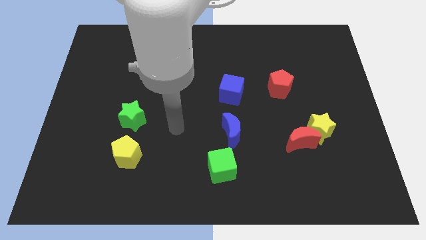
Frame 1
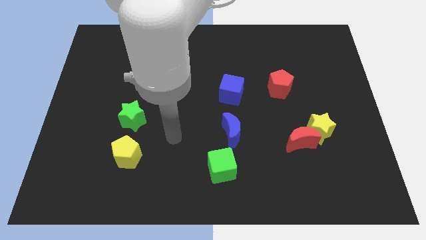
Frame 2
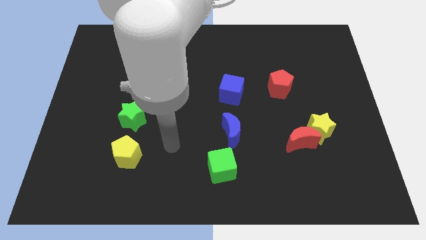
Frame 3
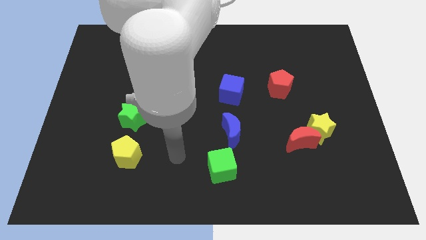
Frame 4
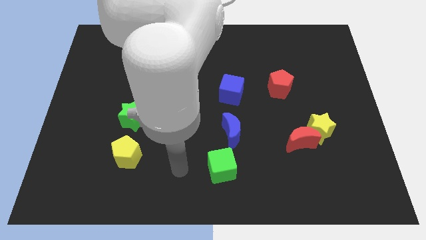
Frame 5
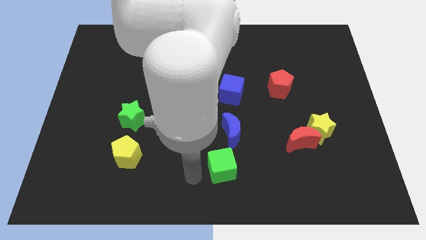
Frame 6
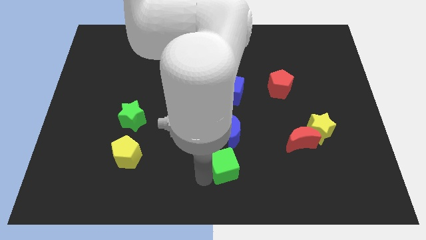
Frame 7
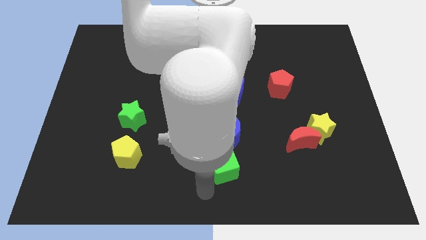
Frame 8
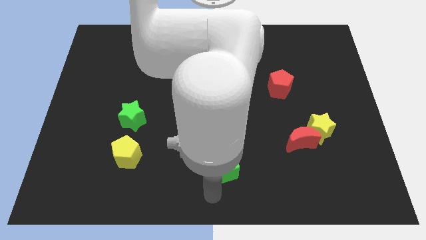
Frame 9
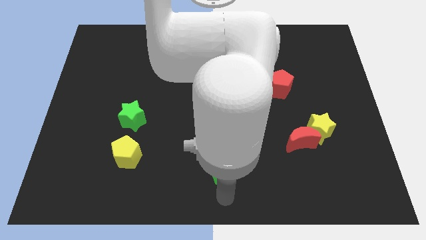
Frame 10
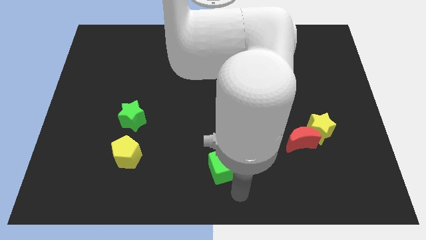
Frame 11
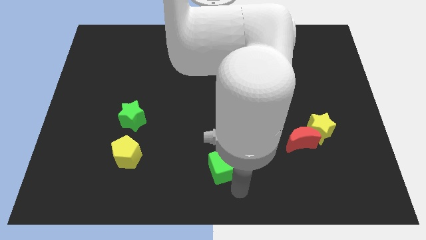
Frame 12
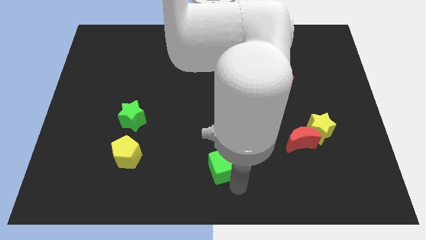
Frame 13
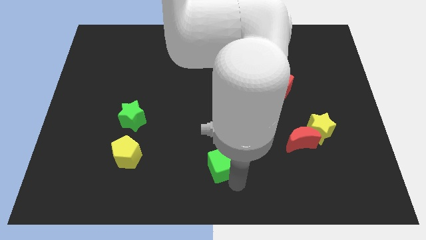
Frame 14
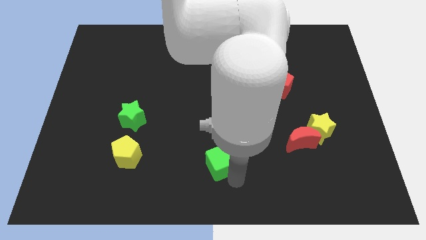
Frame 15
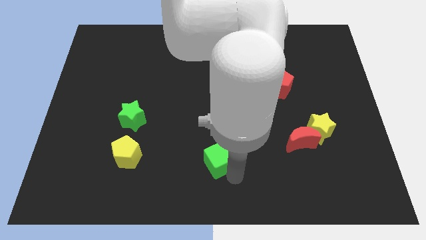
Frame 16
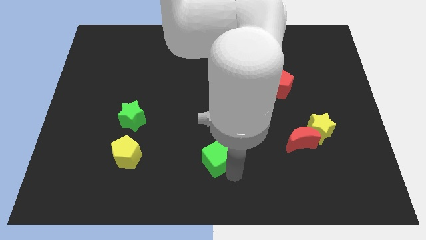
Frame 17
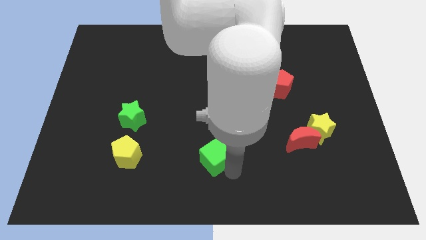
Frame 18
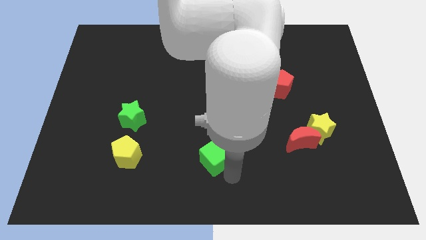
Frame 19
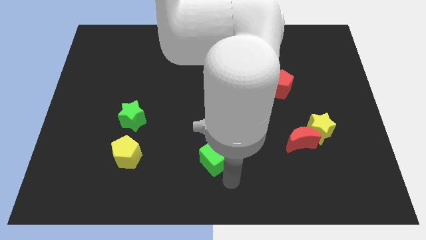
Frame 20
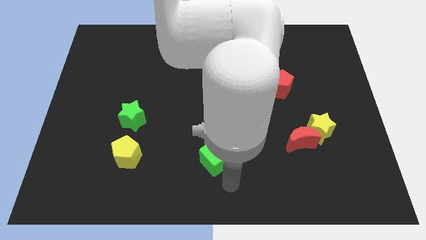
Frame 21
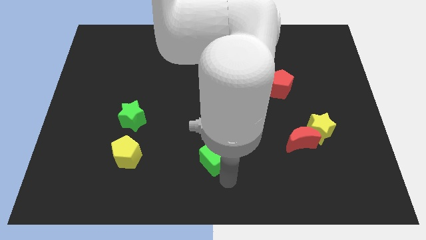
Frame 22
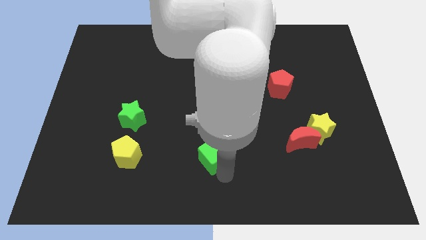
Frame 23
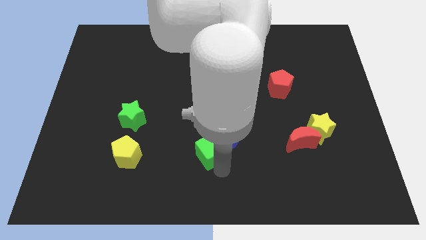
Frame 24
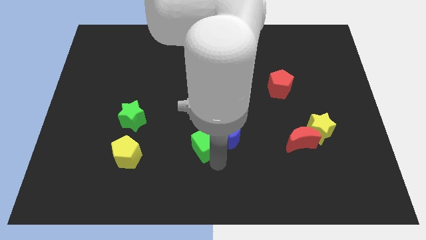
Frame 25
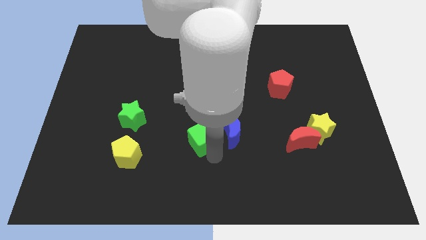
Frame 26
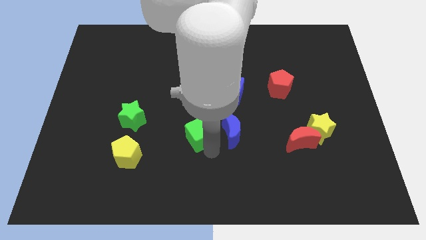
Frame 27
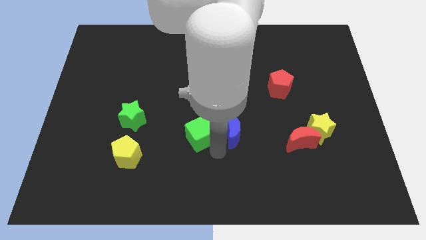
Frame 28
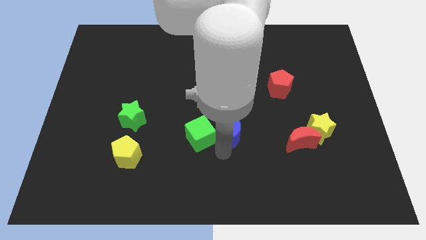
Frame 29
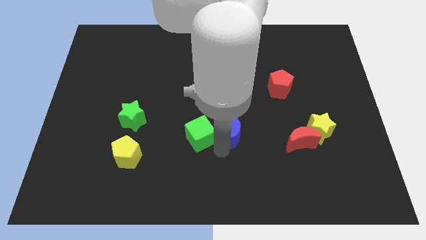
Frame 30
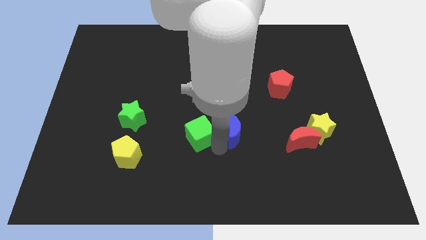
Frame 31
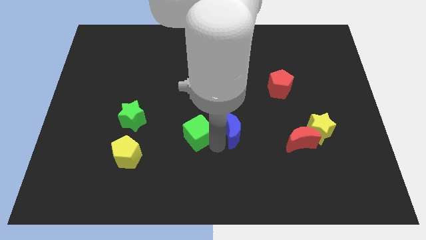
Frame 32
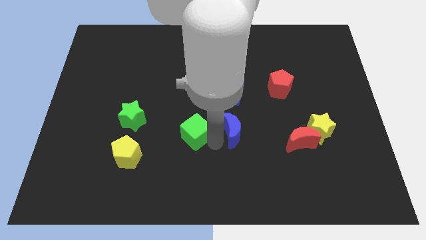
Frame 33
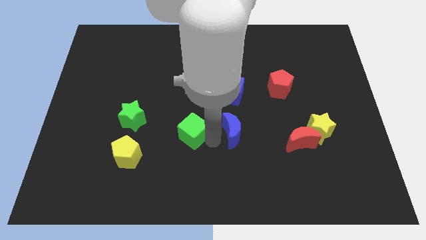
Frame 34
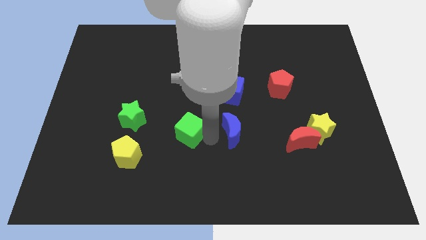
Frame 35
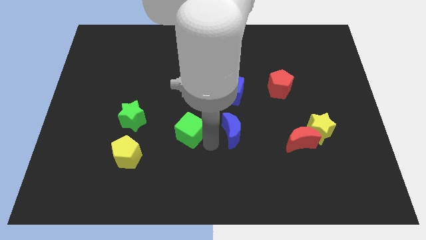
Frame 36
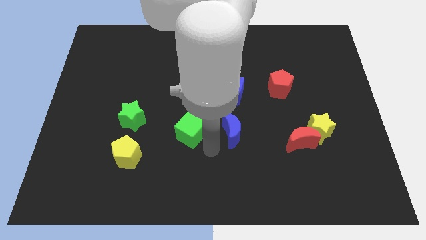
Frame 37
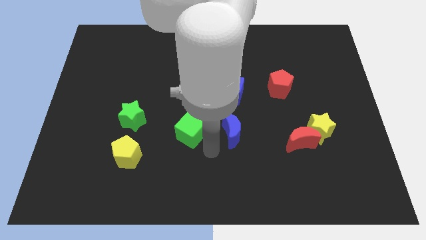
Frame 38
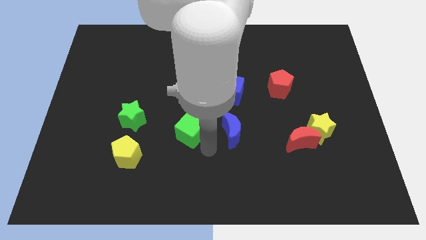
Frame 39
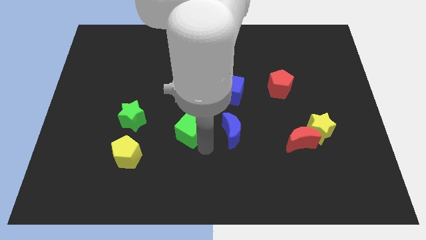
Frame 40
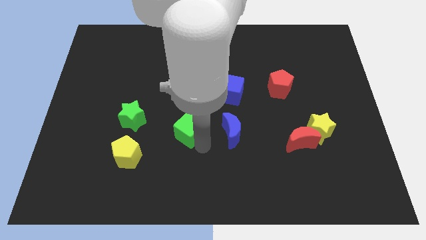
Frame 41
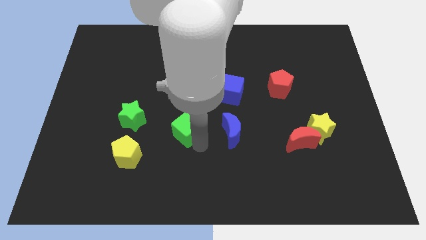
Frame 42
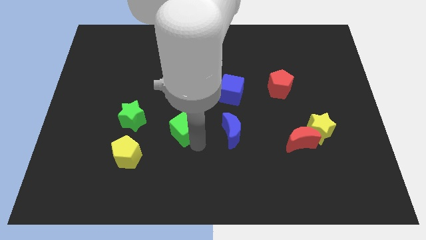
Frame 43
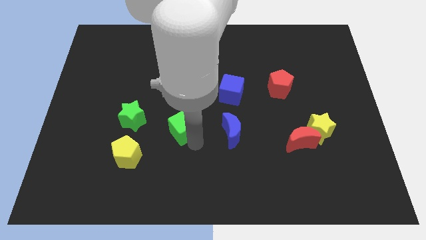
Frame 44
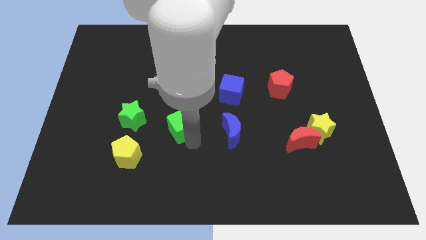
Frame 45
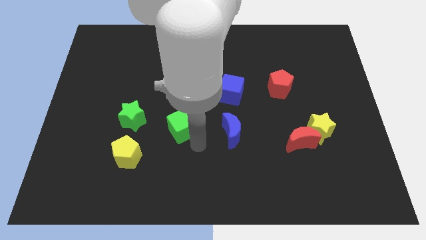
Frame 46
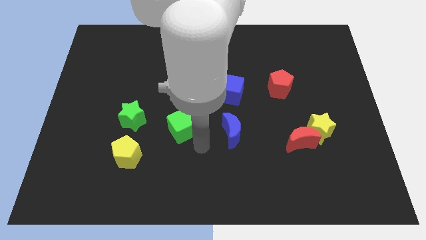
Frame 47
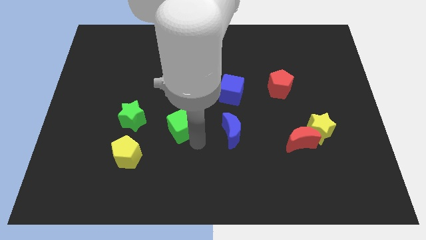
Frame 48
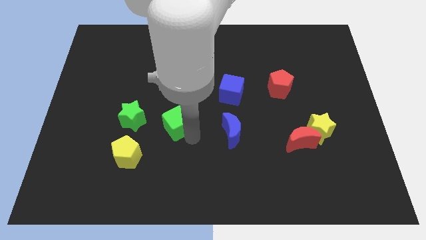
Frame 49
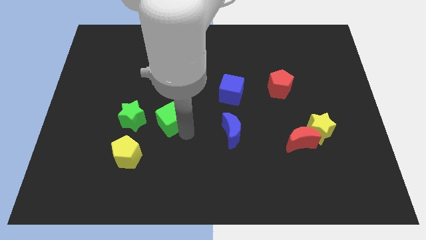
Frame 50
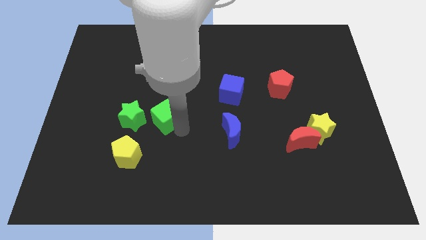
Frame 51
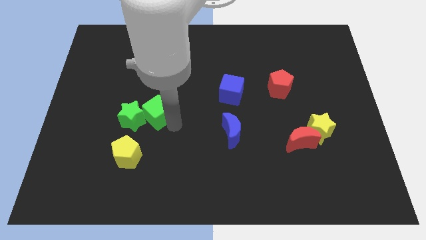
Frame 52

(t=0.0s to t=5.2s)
push the green cube up and to the left diagonally

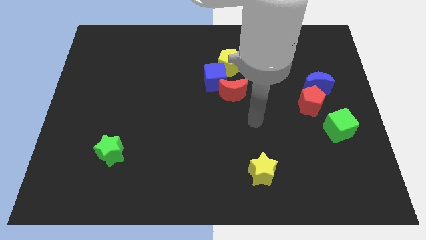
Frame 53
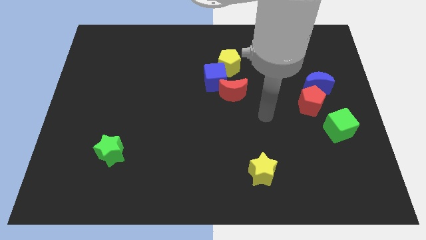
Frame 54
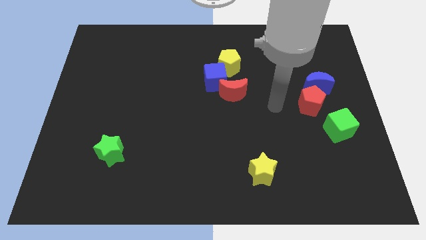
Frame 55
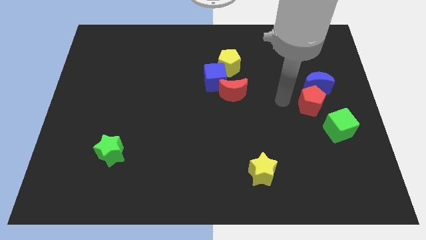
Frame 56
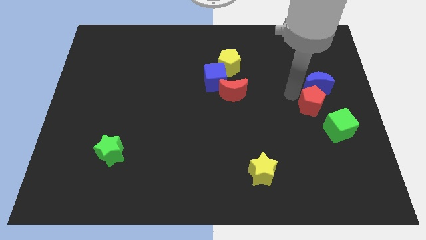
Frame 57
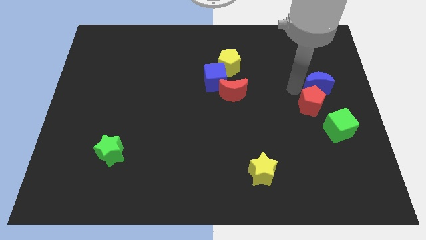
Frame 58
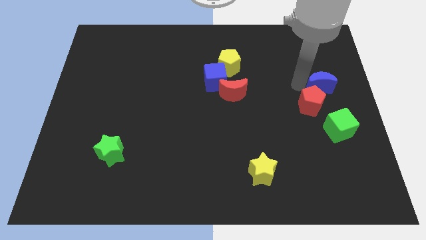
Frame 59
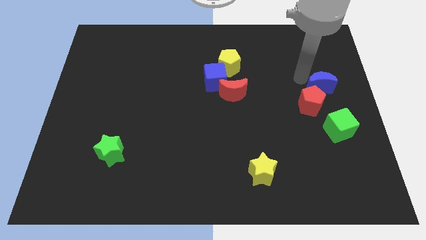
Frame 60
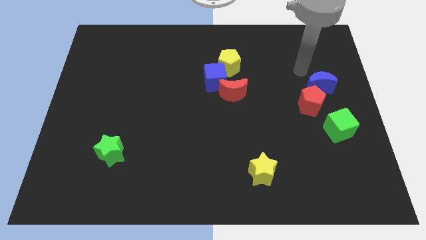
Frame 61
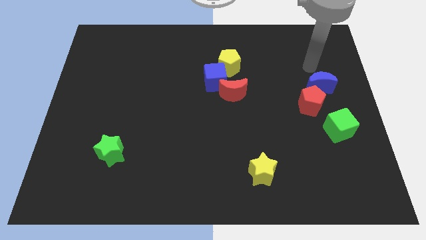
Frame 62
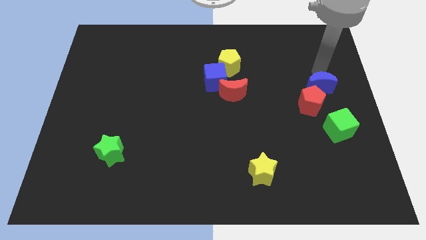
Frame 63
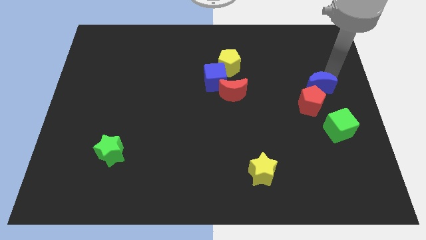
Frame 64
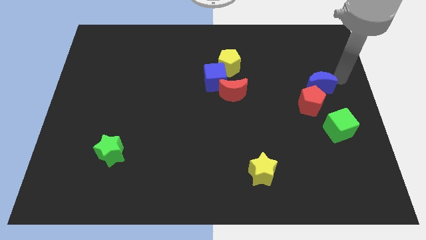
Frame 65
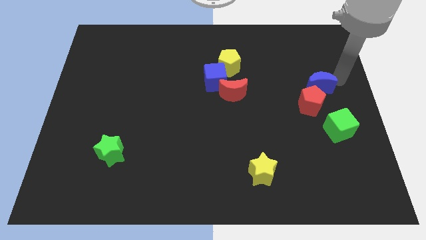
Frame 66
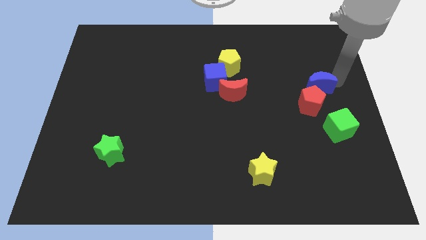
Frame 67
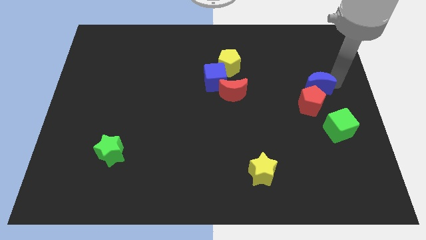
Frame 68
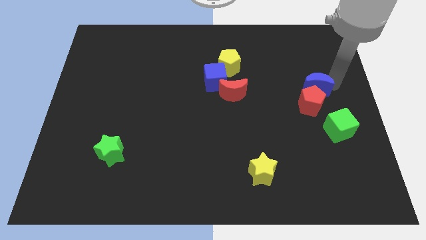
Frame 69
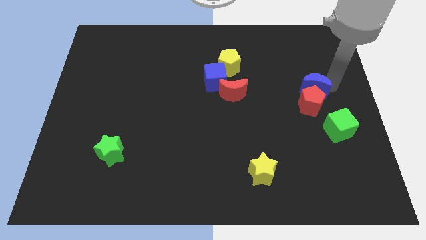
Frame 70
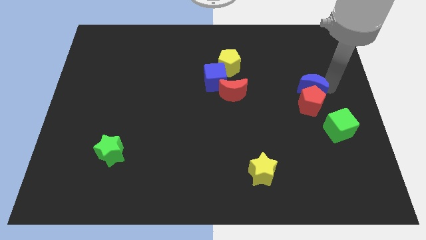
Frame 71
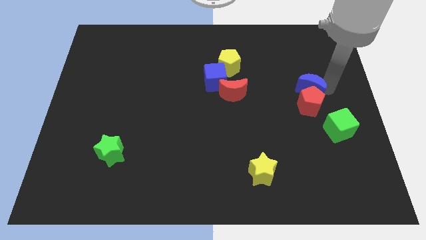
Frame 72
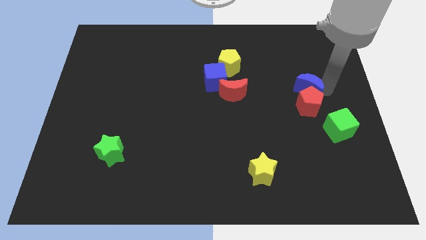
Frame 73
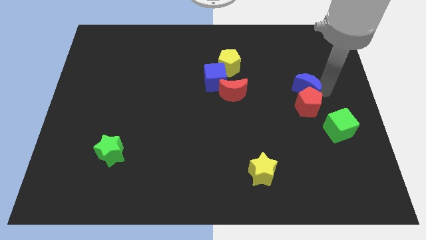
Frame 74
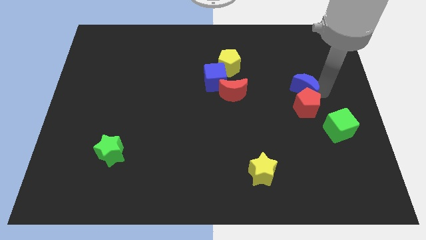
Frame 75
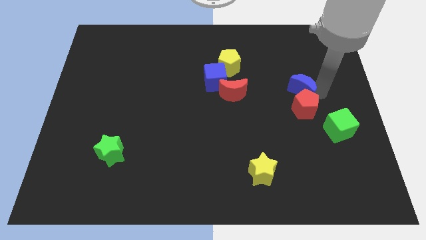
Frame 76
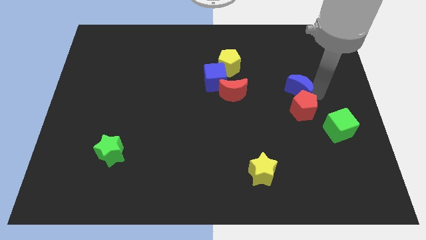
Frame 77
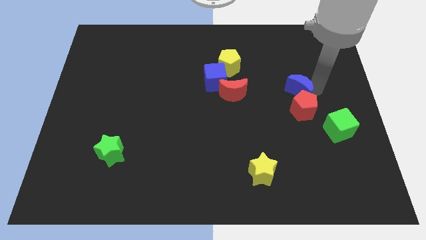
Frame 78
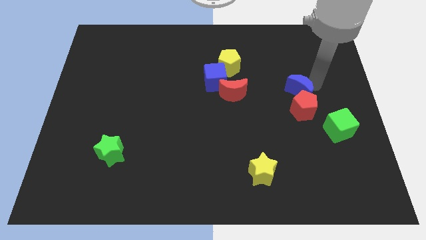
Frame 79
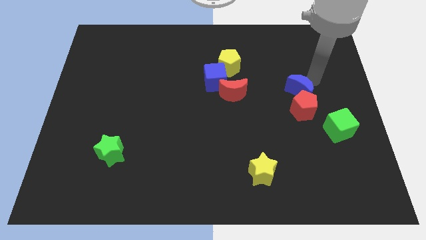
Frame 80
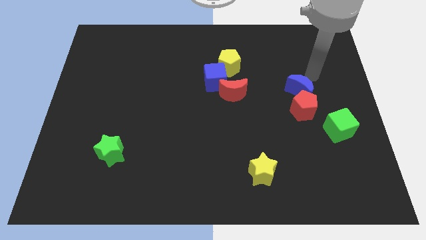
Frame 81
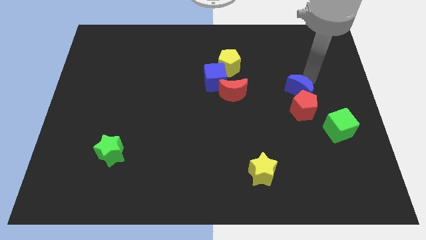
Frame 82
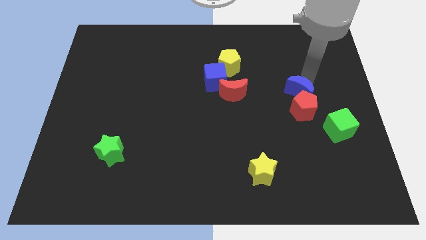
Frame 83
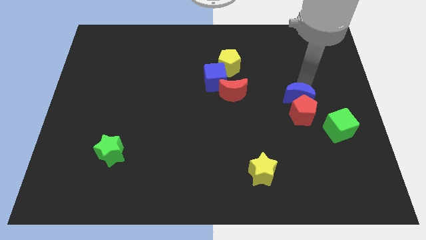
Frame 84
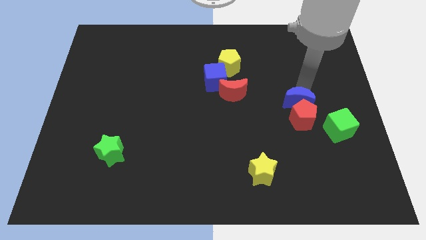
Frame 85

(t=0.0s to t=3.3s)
slide the blue moon down and left diagonally a little bit
